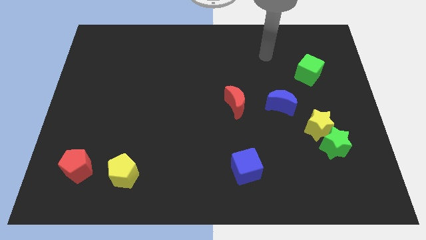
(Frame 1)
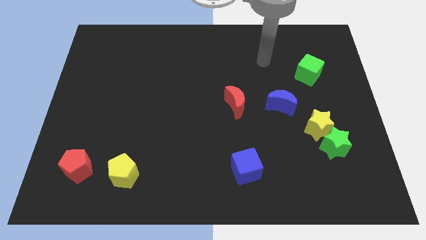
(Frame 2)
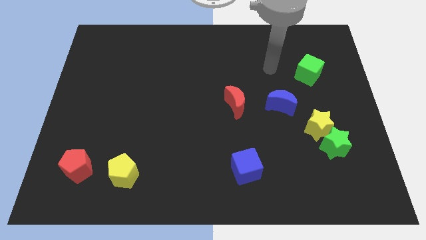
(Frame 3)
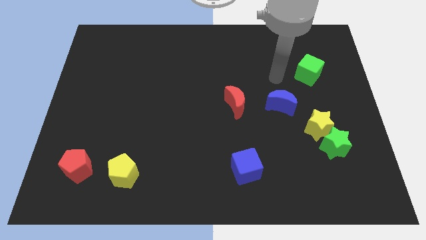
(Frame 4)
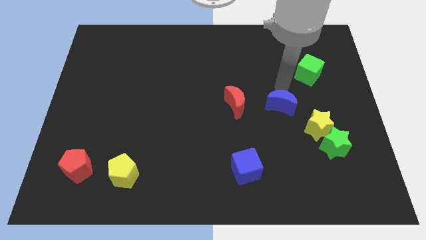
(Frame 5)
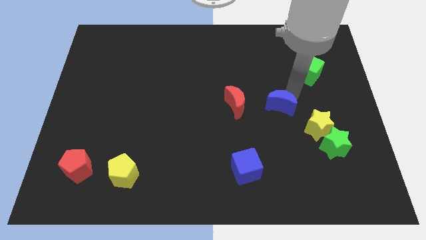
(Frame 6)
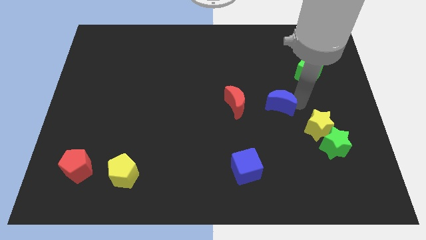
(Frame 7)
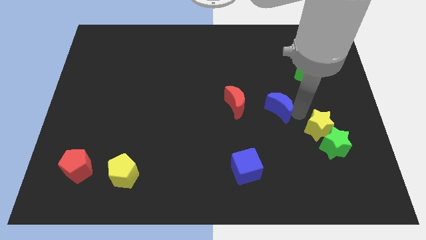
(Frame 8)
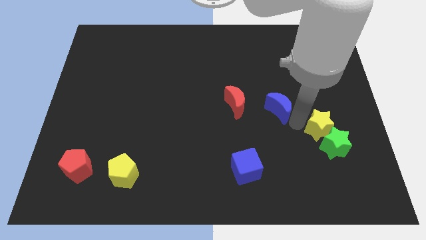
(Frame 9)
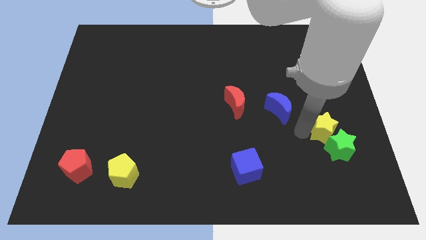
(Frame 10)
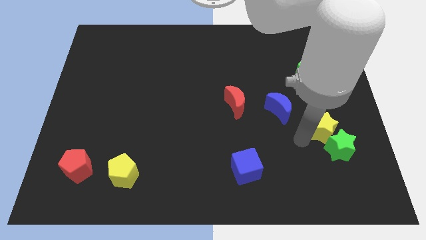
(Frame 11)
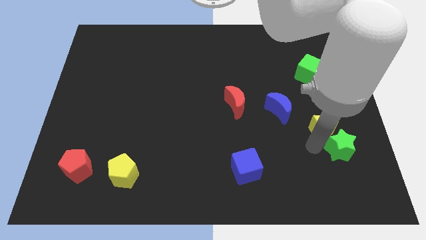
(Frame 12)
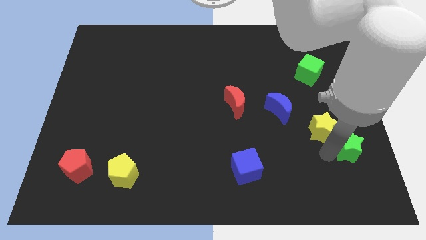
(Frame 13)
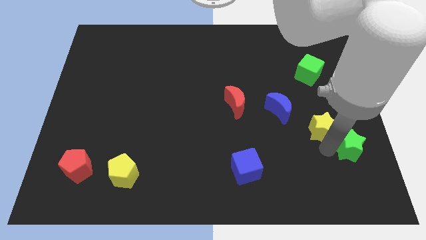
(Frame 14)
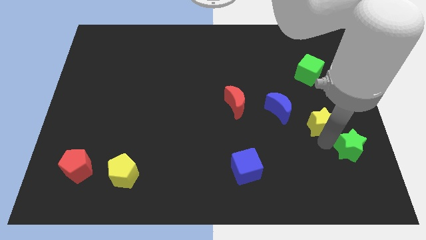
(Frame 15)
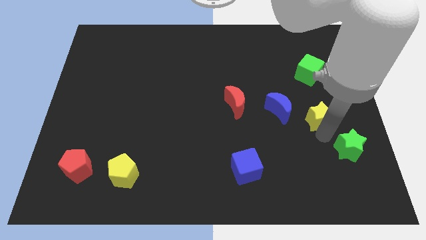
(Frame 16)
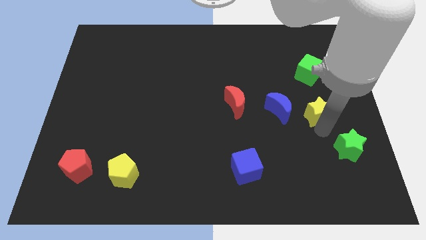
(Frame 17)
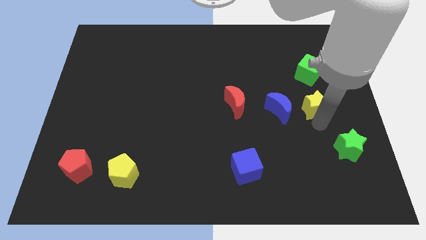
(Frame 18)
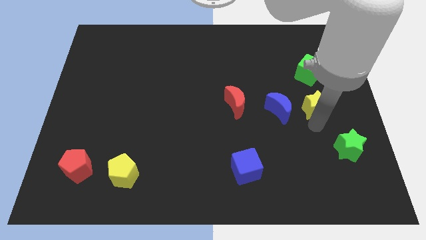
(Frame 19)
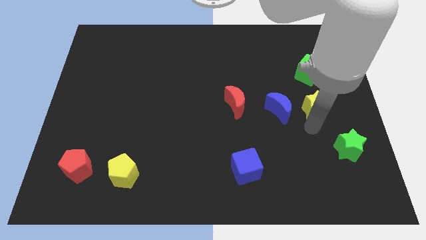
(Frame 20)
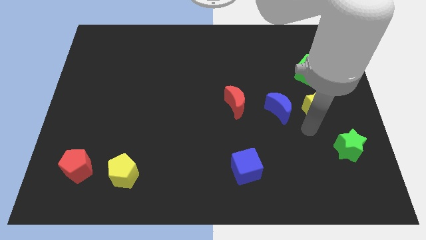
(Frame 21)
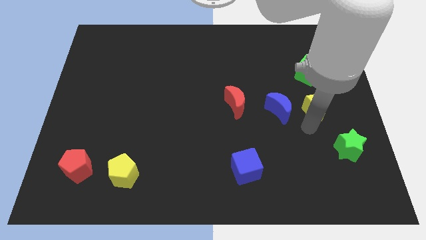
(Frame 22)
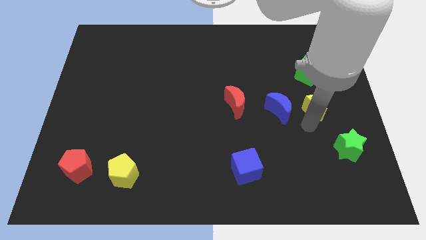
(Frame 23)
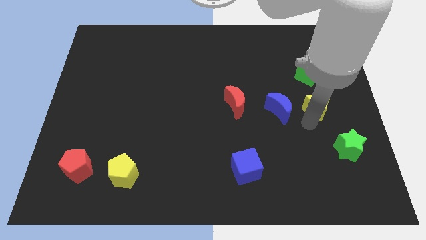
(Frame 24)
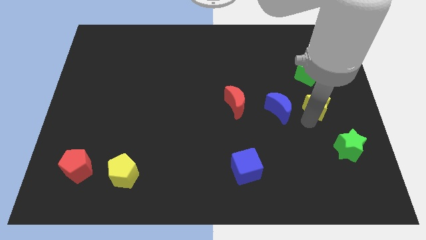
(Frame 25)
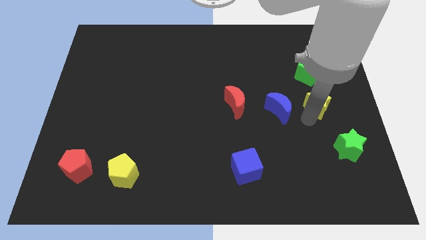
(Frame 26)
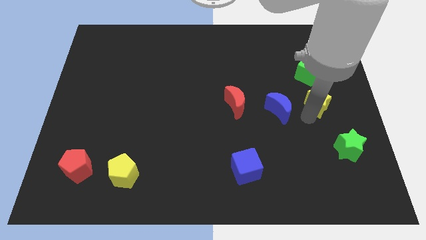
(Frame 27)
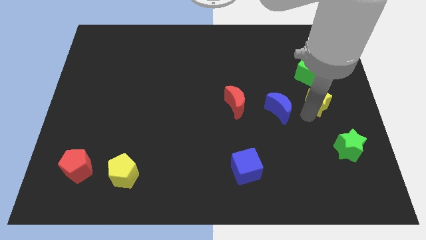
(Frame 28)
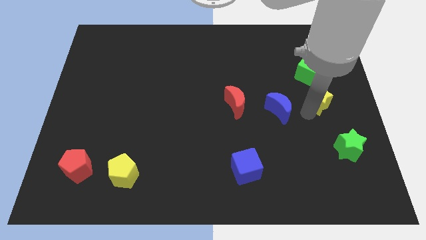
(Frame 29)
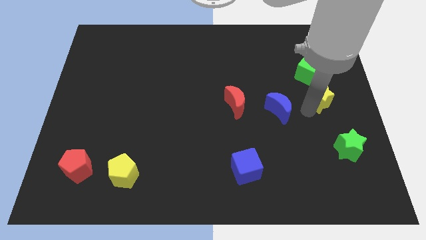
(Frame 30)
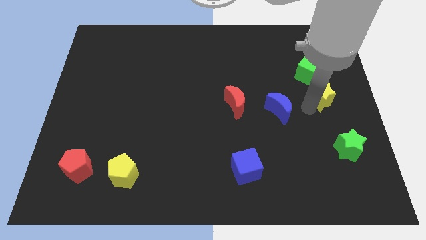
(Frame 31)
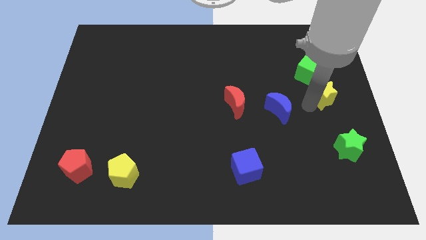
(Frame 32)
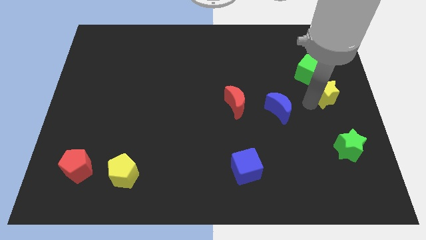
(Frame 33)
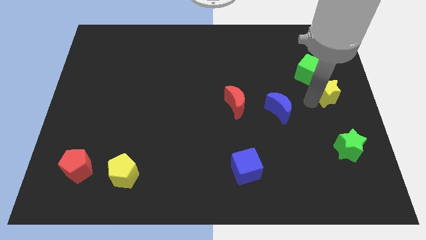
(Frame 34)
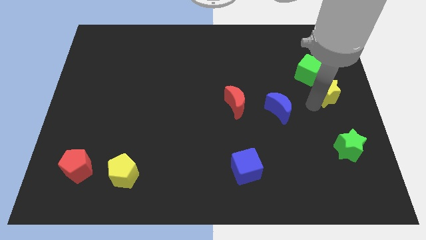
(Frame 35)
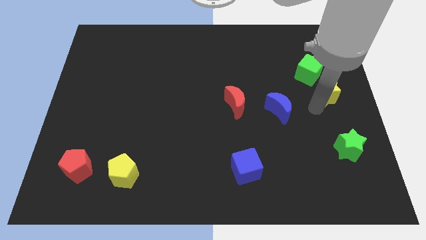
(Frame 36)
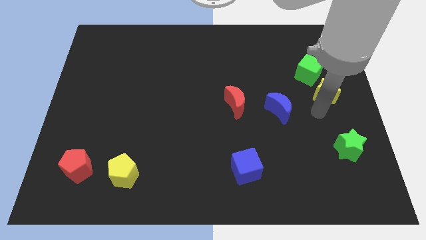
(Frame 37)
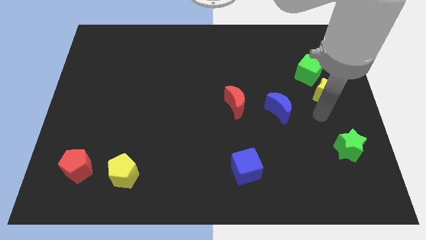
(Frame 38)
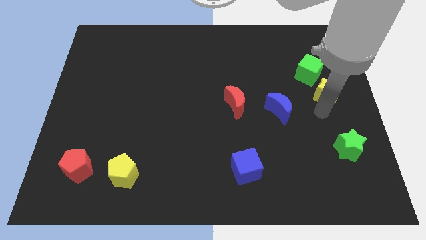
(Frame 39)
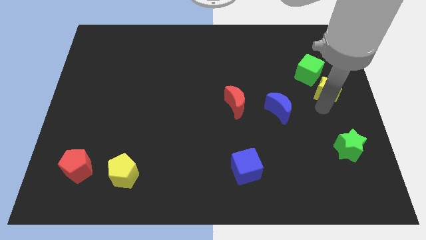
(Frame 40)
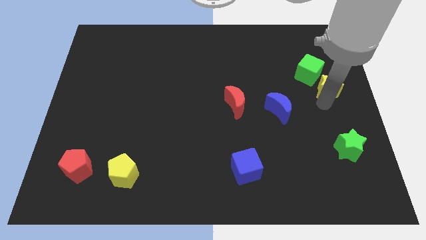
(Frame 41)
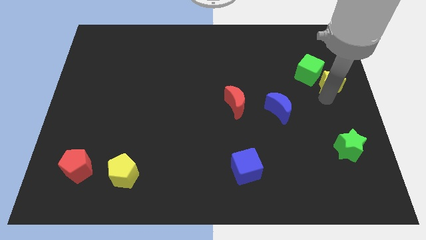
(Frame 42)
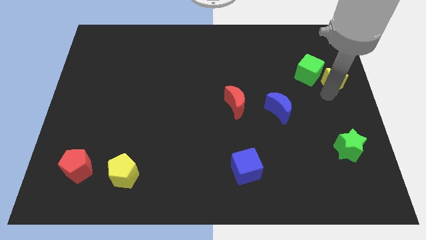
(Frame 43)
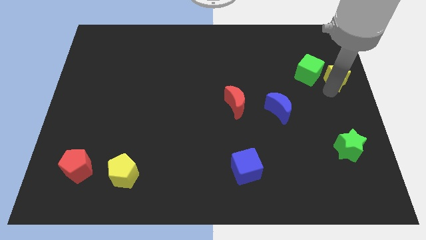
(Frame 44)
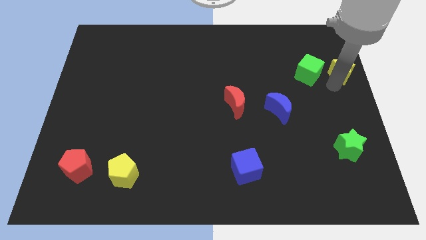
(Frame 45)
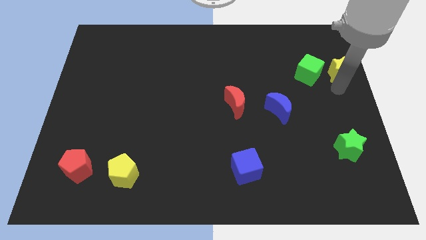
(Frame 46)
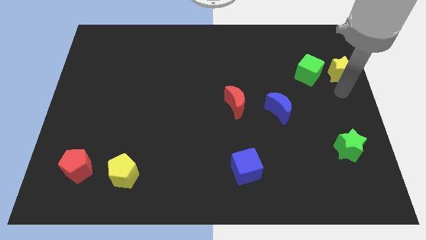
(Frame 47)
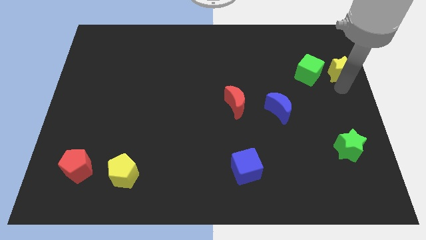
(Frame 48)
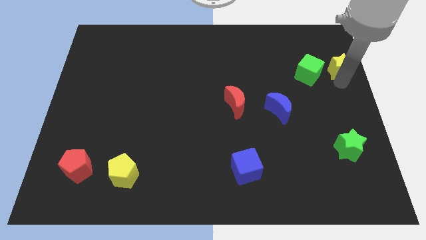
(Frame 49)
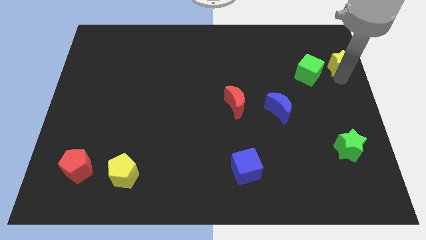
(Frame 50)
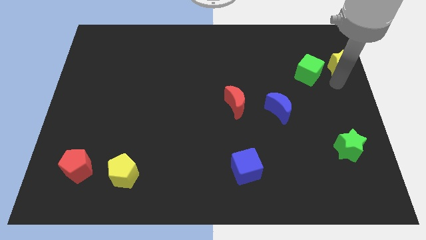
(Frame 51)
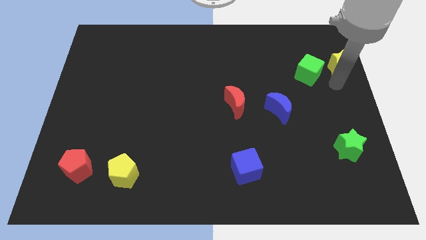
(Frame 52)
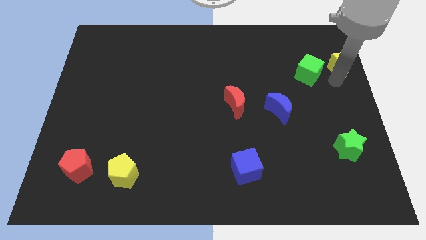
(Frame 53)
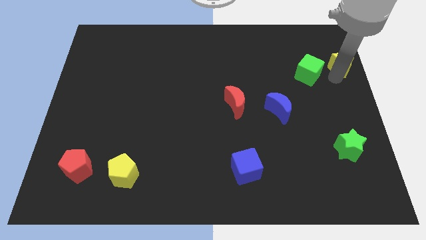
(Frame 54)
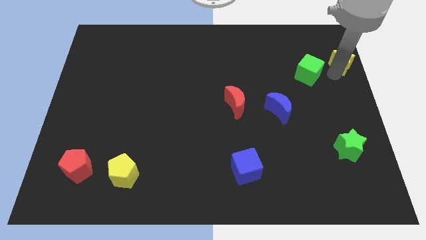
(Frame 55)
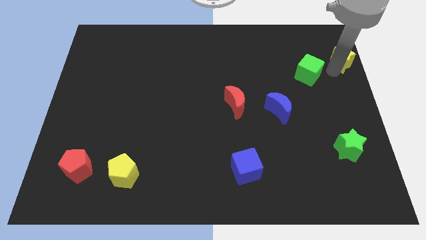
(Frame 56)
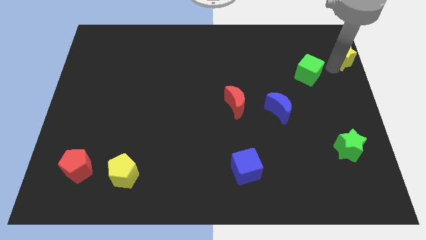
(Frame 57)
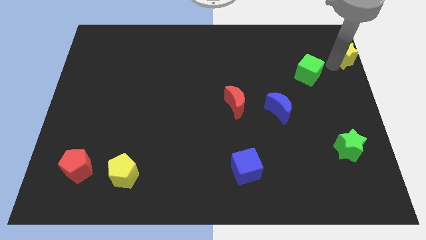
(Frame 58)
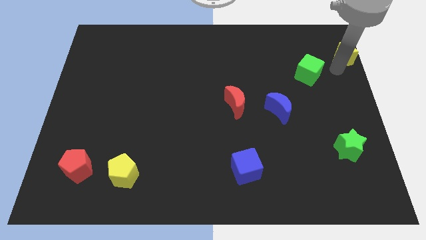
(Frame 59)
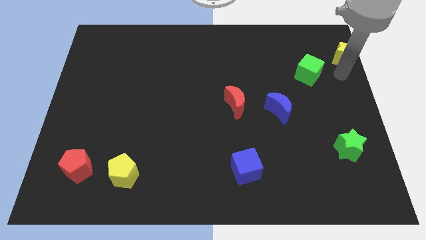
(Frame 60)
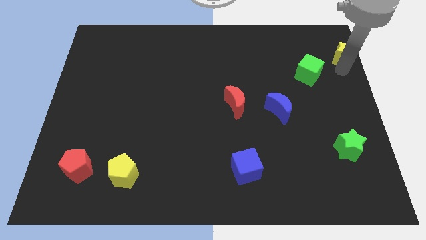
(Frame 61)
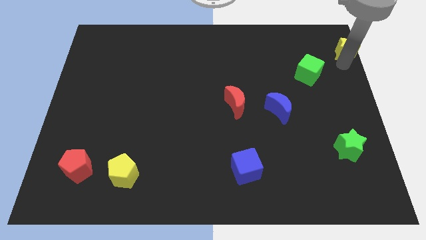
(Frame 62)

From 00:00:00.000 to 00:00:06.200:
move the yellow star to the top right corner

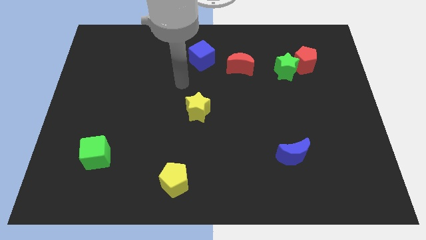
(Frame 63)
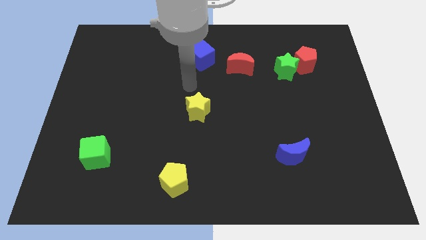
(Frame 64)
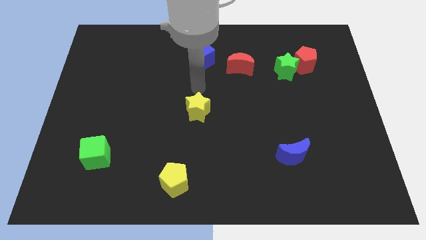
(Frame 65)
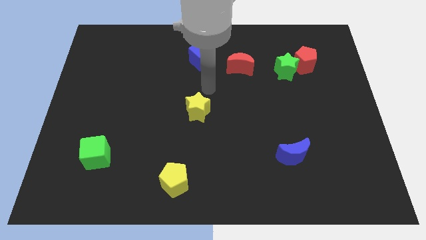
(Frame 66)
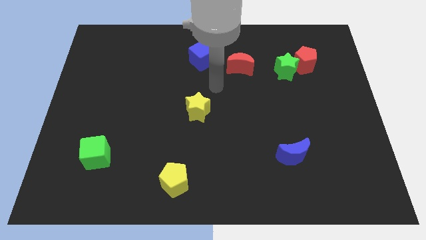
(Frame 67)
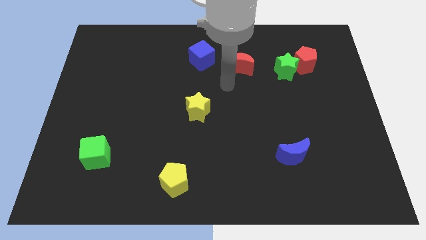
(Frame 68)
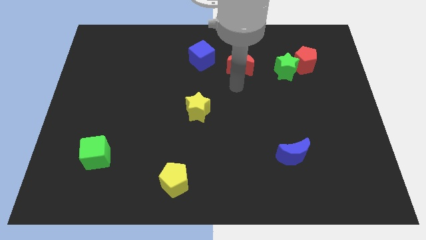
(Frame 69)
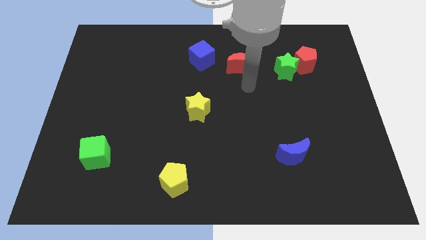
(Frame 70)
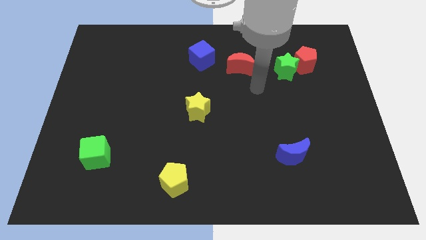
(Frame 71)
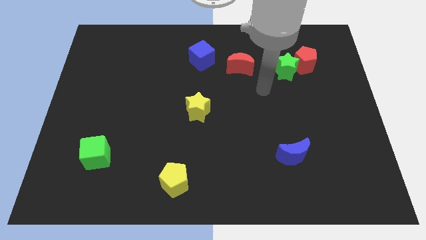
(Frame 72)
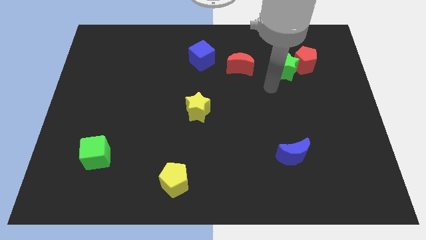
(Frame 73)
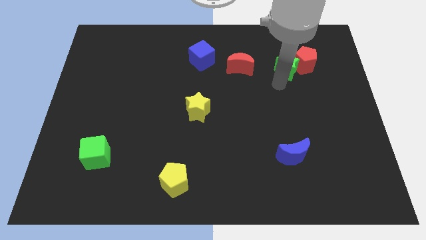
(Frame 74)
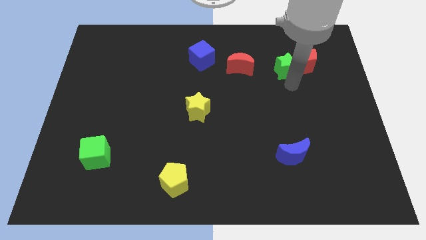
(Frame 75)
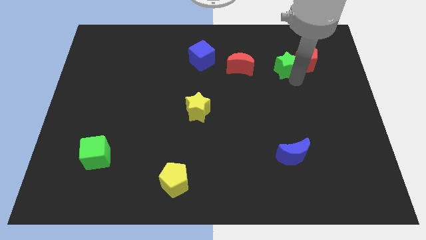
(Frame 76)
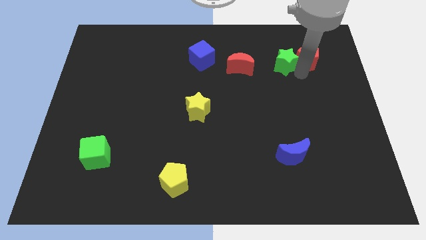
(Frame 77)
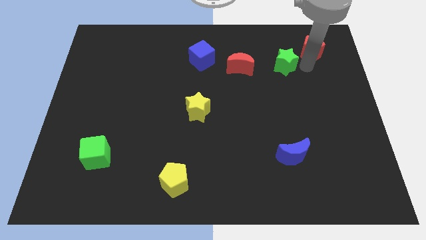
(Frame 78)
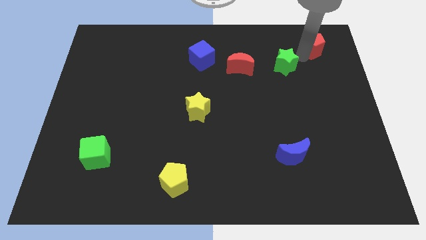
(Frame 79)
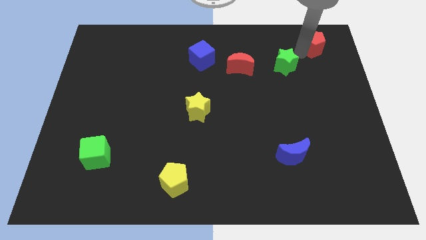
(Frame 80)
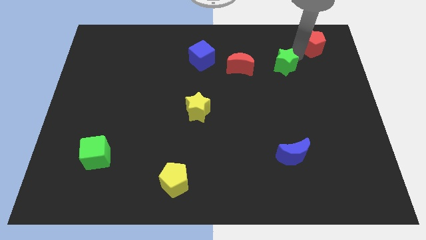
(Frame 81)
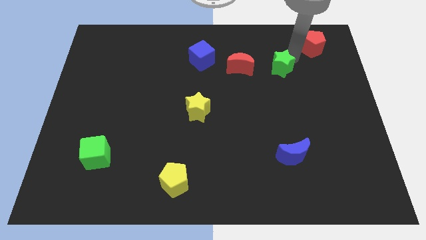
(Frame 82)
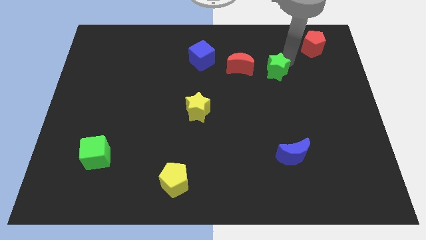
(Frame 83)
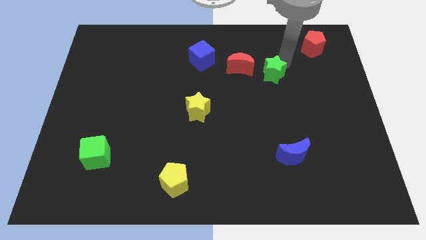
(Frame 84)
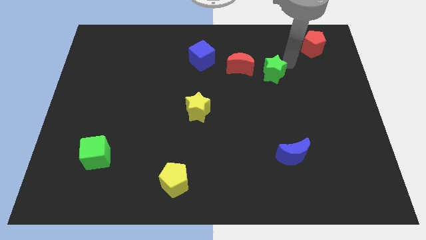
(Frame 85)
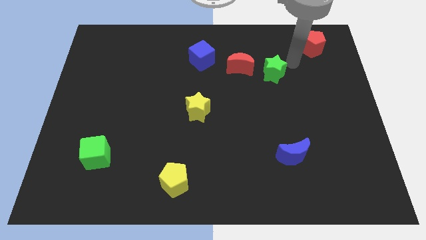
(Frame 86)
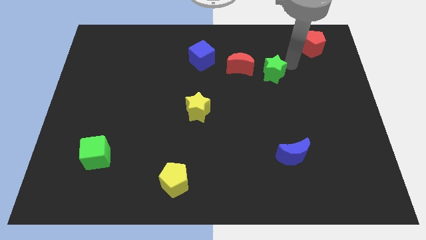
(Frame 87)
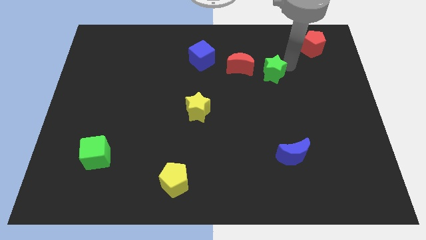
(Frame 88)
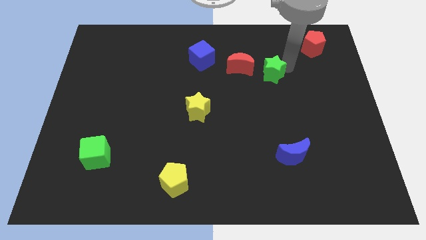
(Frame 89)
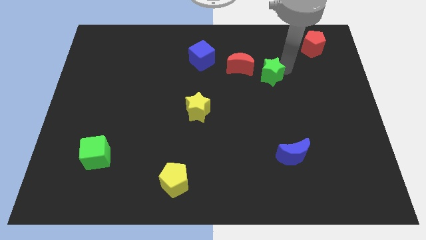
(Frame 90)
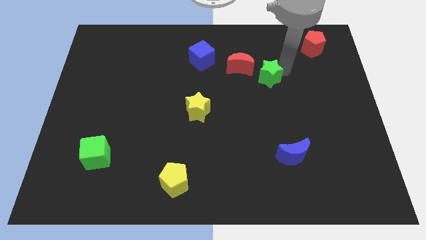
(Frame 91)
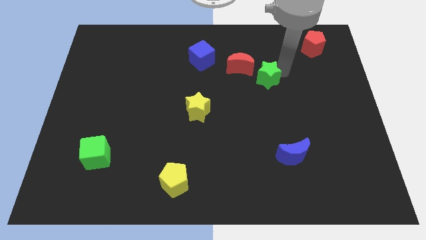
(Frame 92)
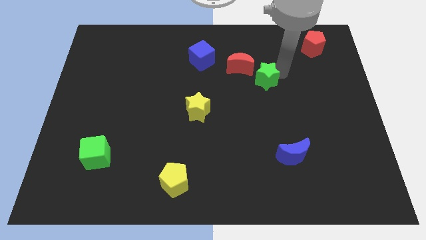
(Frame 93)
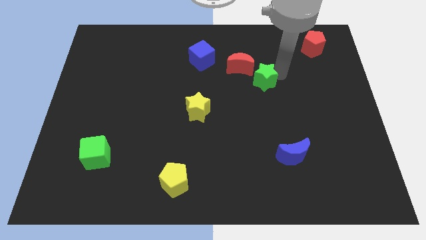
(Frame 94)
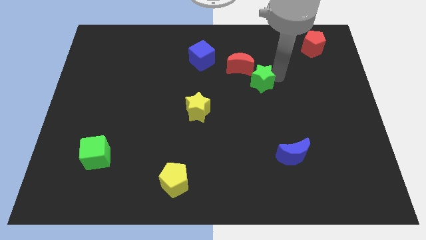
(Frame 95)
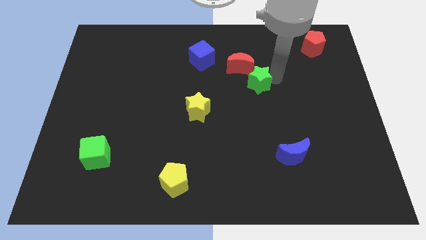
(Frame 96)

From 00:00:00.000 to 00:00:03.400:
slide the green star to the middle
